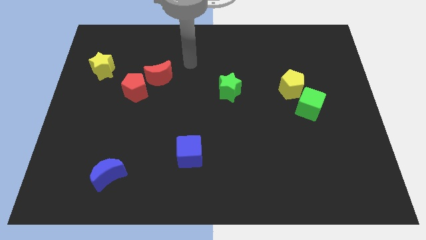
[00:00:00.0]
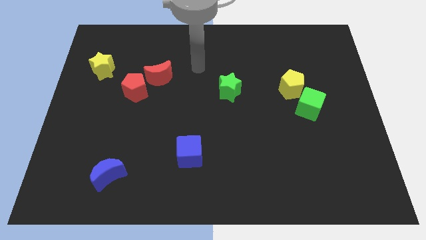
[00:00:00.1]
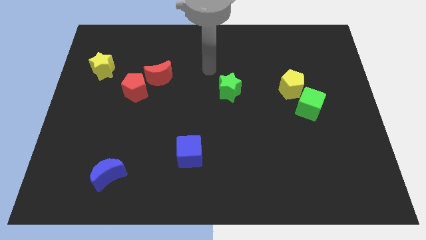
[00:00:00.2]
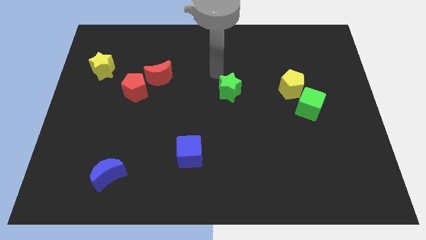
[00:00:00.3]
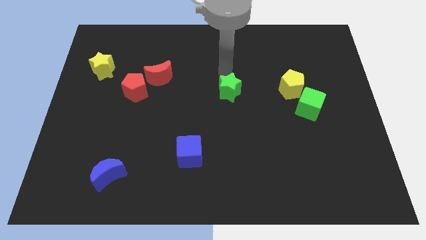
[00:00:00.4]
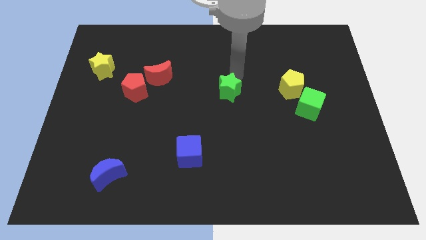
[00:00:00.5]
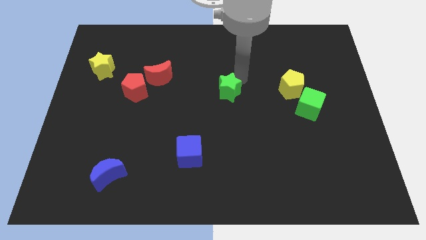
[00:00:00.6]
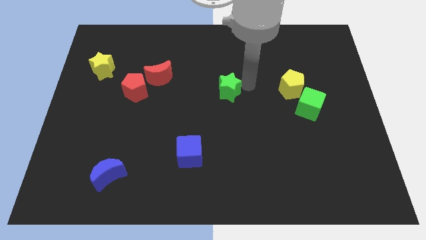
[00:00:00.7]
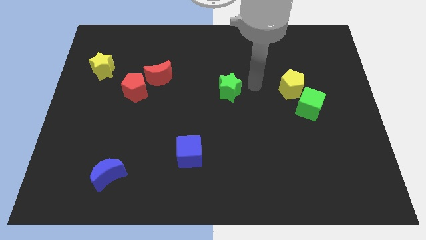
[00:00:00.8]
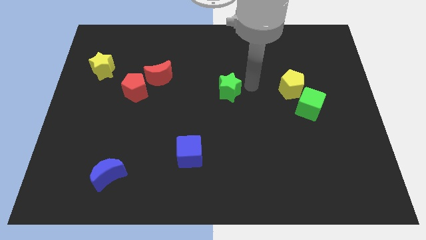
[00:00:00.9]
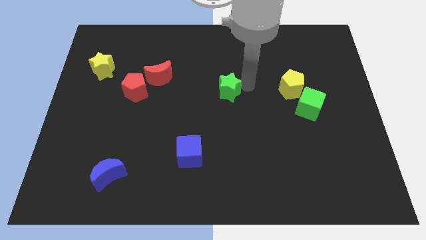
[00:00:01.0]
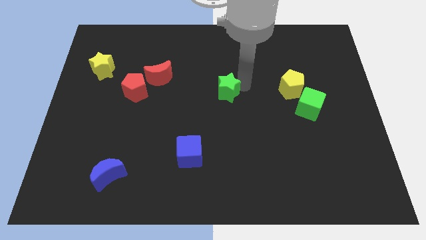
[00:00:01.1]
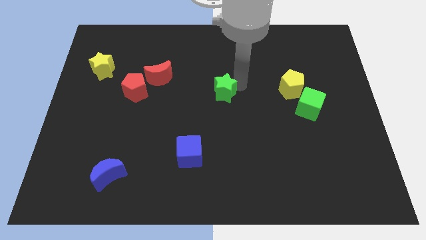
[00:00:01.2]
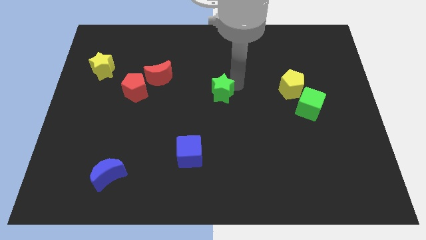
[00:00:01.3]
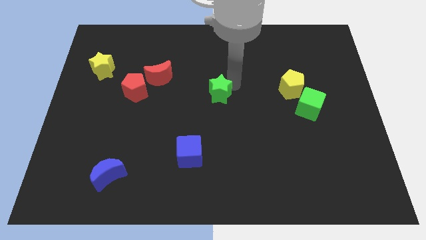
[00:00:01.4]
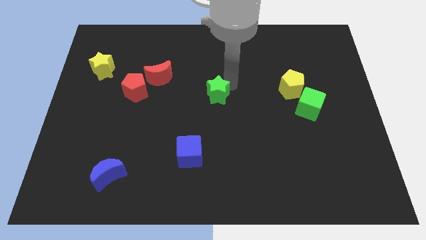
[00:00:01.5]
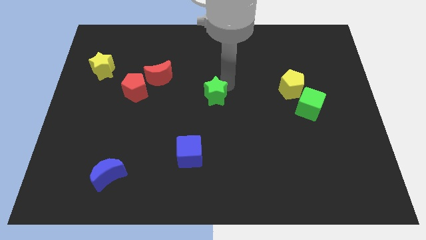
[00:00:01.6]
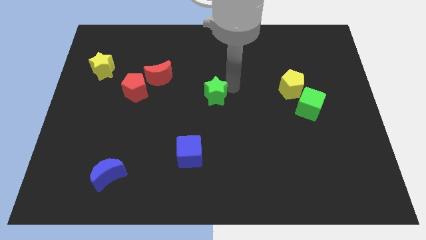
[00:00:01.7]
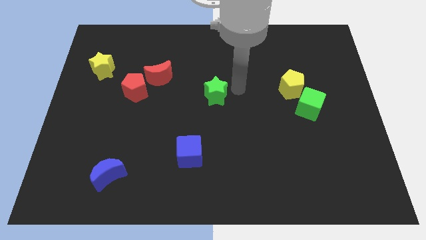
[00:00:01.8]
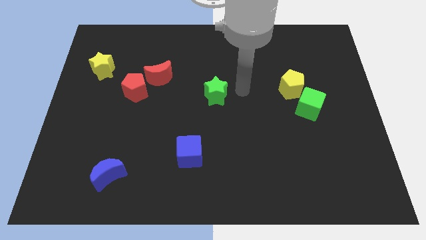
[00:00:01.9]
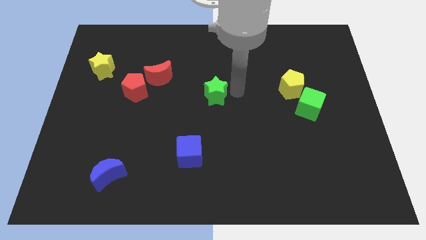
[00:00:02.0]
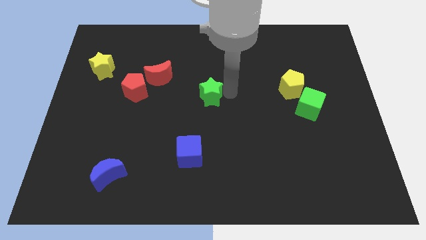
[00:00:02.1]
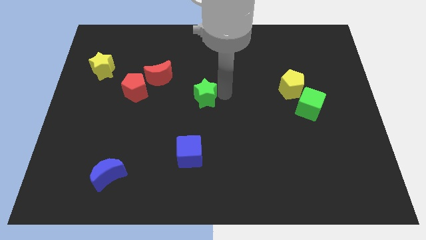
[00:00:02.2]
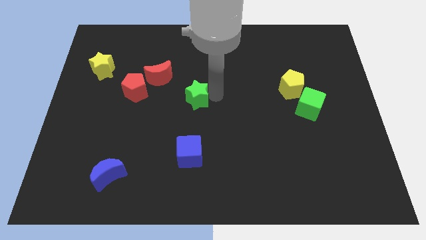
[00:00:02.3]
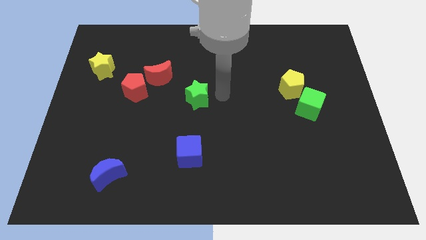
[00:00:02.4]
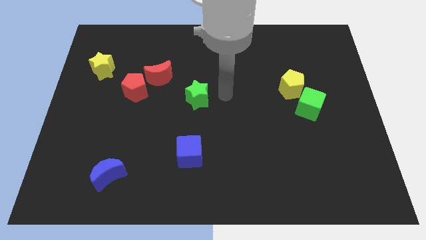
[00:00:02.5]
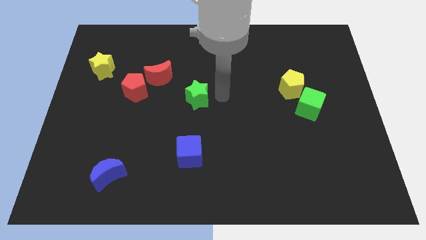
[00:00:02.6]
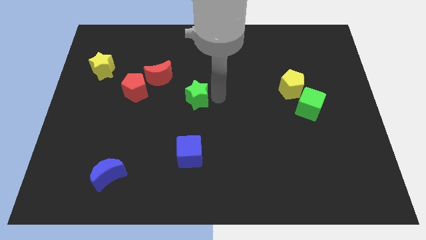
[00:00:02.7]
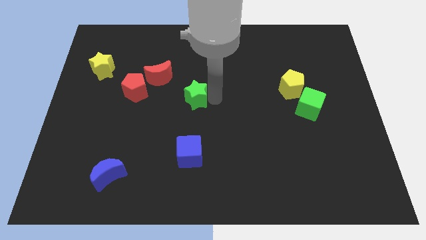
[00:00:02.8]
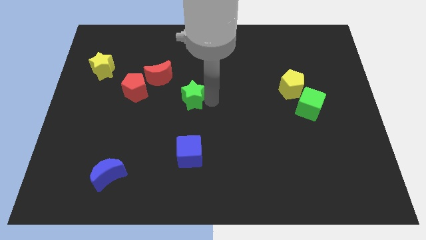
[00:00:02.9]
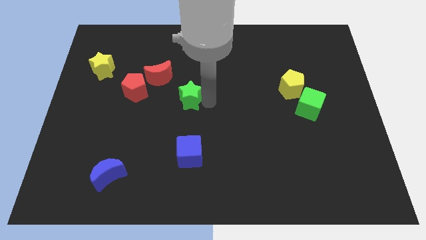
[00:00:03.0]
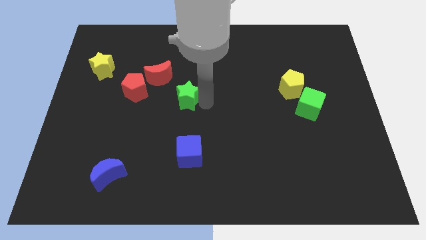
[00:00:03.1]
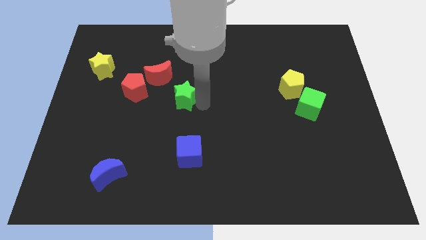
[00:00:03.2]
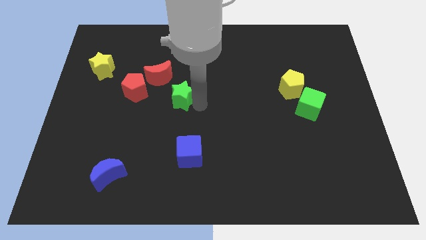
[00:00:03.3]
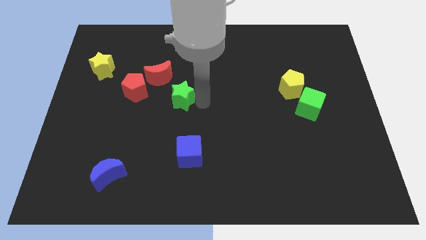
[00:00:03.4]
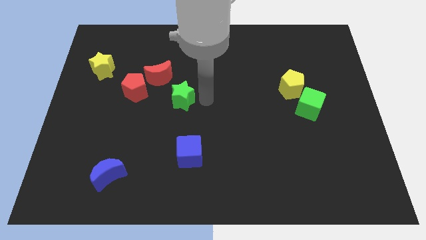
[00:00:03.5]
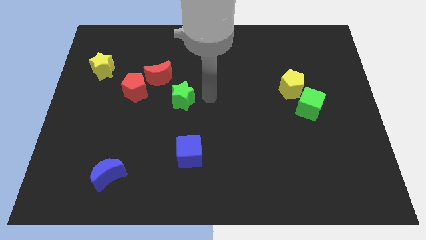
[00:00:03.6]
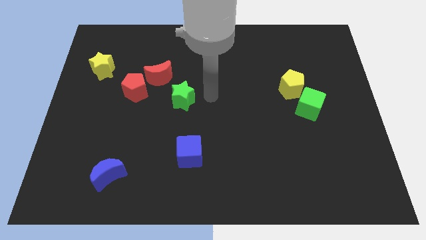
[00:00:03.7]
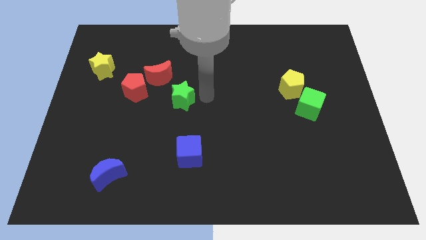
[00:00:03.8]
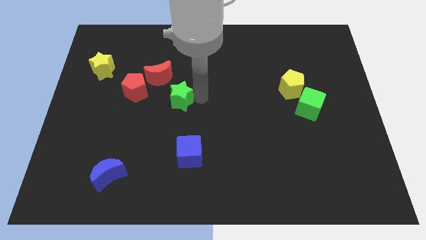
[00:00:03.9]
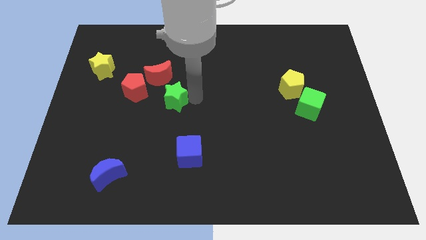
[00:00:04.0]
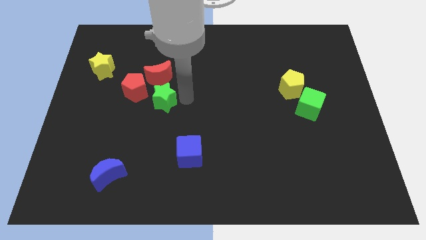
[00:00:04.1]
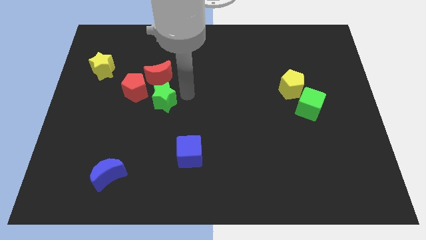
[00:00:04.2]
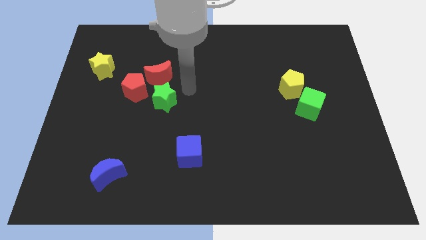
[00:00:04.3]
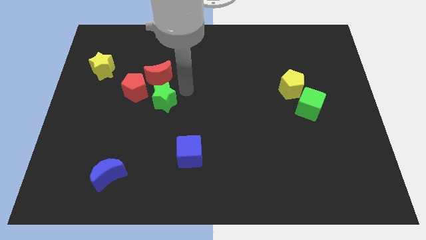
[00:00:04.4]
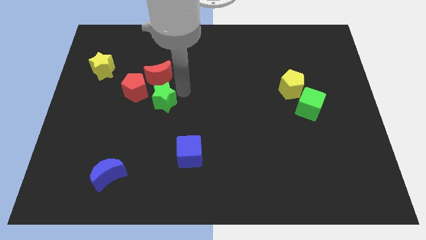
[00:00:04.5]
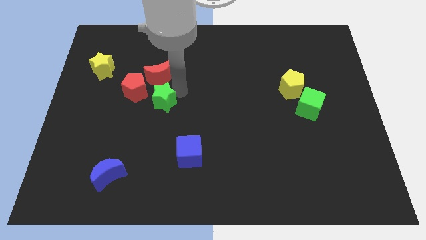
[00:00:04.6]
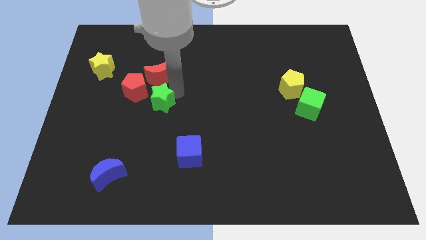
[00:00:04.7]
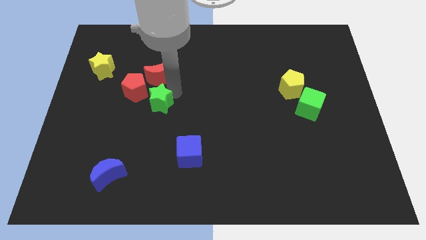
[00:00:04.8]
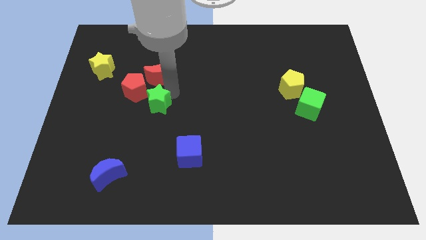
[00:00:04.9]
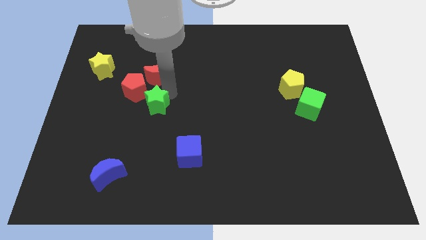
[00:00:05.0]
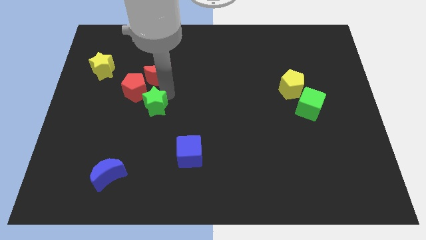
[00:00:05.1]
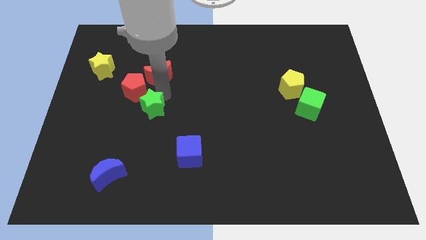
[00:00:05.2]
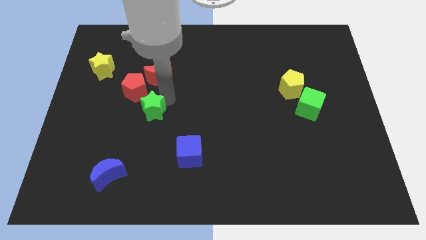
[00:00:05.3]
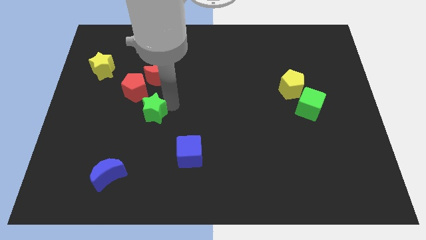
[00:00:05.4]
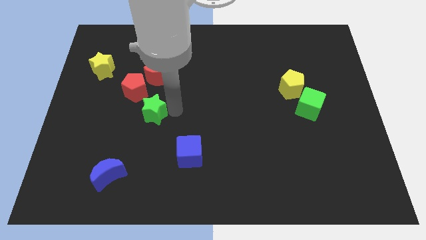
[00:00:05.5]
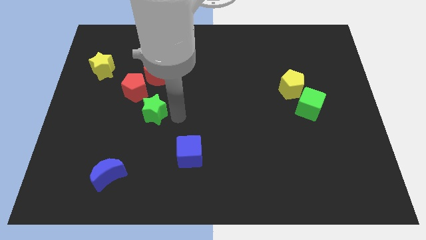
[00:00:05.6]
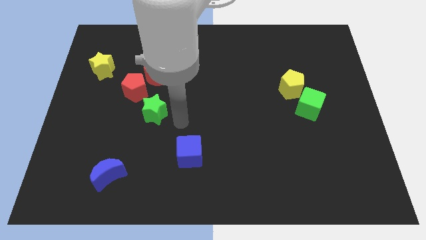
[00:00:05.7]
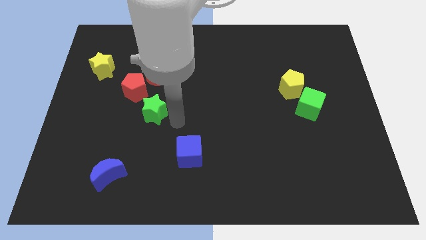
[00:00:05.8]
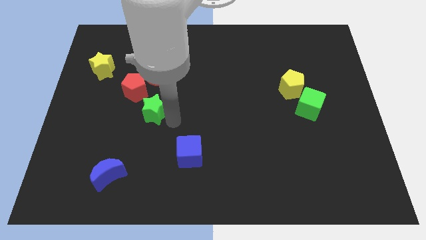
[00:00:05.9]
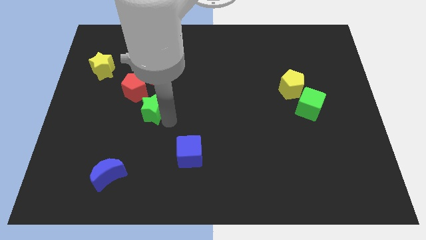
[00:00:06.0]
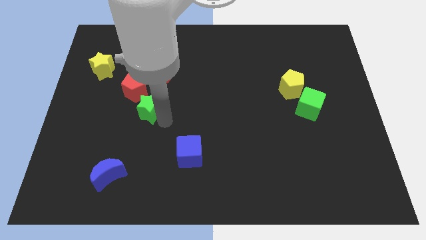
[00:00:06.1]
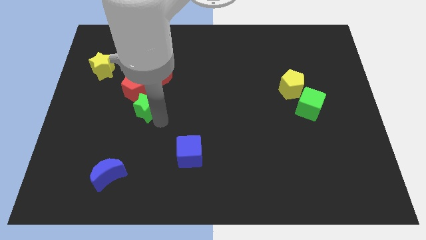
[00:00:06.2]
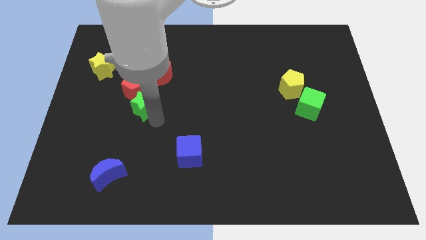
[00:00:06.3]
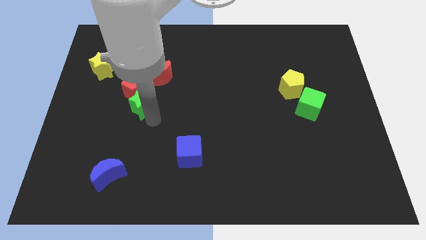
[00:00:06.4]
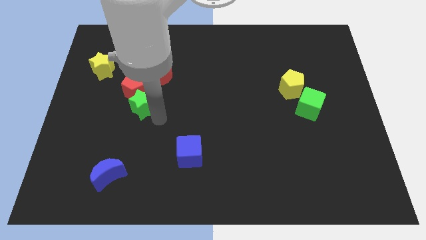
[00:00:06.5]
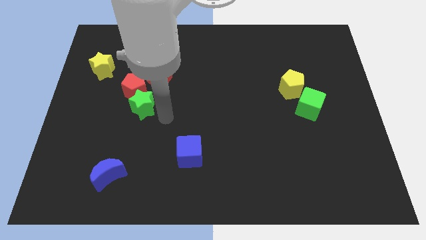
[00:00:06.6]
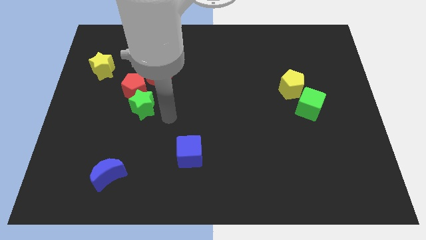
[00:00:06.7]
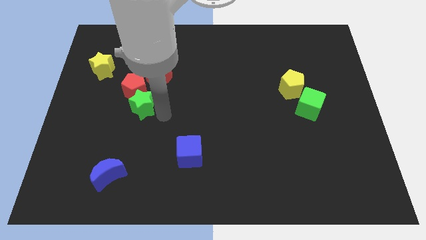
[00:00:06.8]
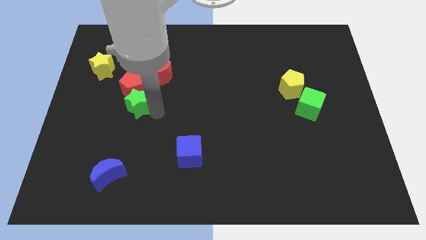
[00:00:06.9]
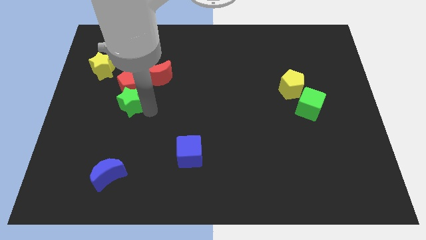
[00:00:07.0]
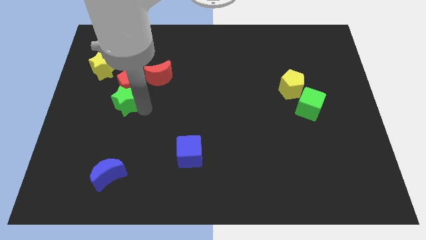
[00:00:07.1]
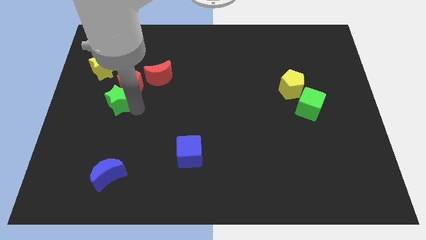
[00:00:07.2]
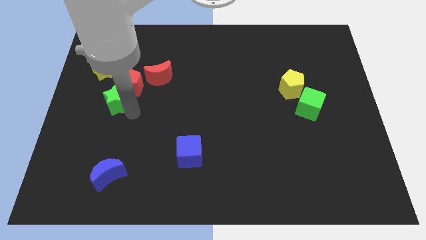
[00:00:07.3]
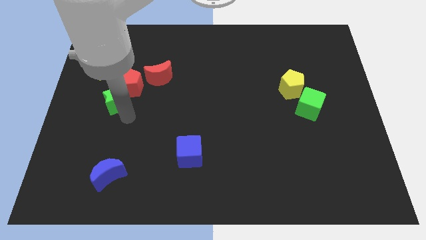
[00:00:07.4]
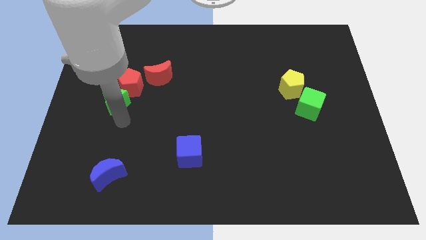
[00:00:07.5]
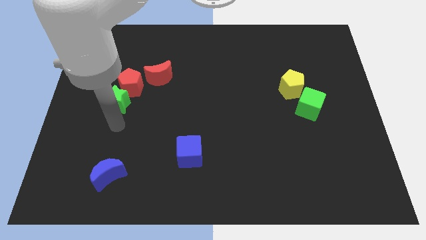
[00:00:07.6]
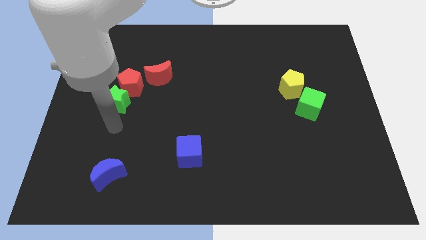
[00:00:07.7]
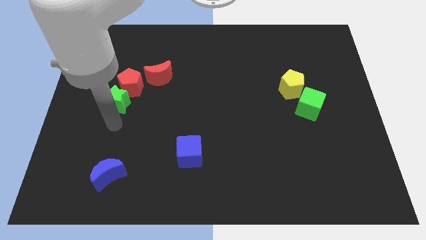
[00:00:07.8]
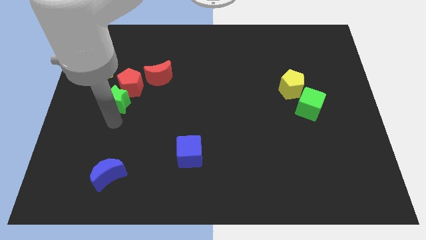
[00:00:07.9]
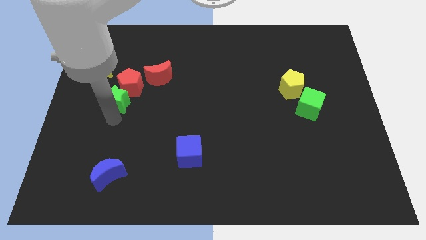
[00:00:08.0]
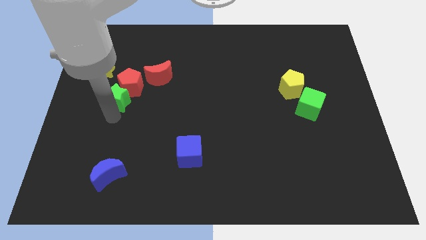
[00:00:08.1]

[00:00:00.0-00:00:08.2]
put the green star to the bottom right of the yellow star
